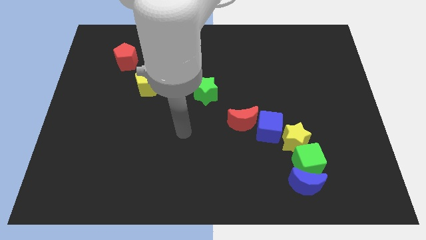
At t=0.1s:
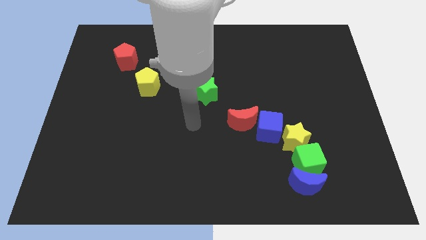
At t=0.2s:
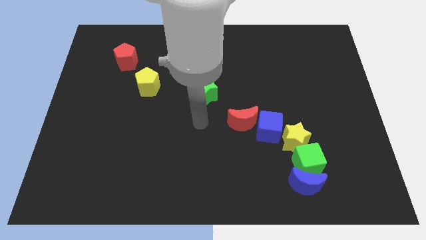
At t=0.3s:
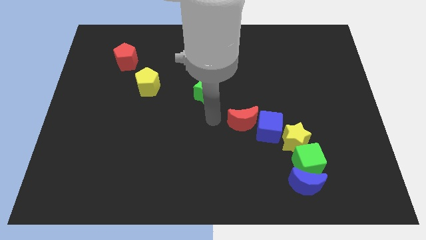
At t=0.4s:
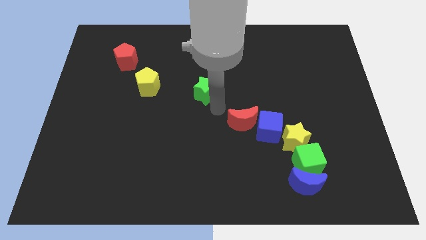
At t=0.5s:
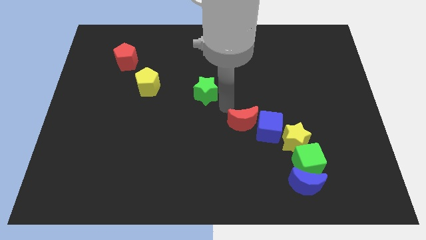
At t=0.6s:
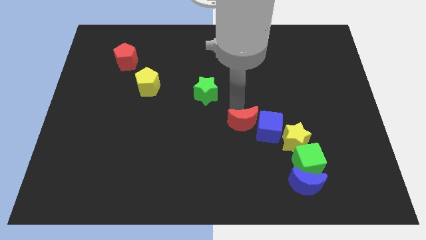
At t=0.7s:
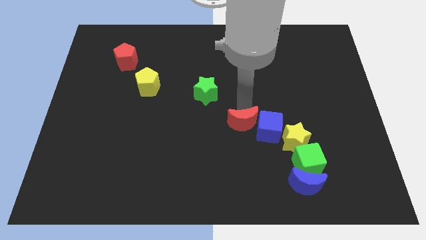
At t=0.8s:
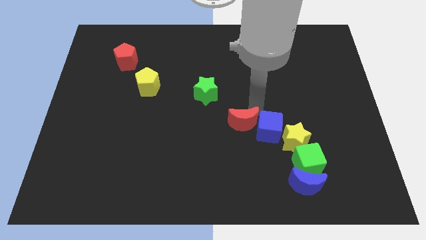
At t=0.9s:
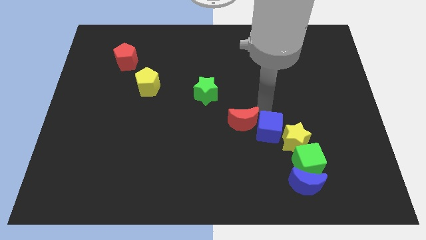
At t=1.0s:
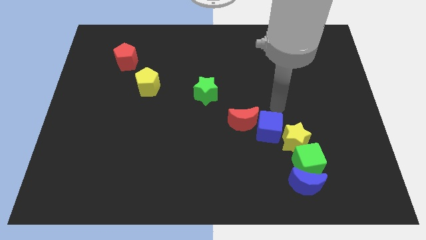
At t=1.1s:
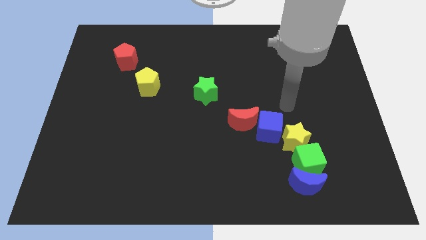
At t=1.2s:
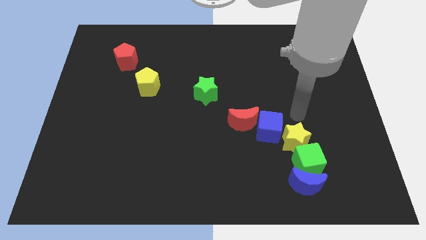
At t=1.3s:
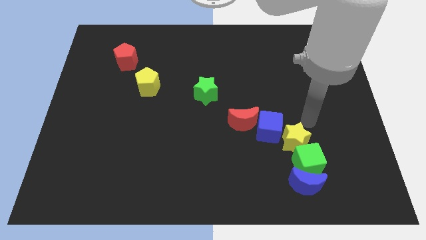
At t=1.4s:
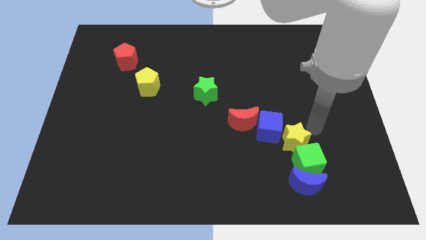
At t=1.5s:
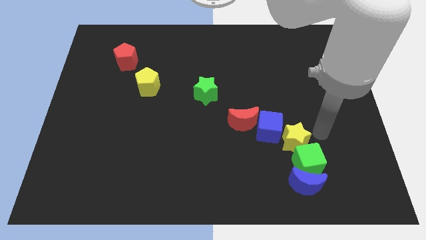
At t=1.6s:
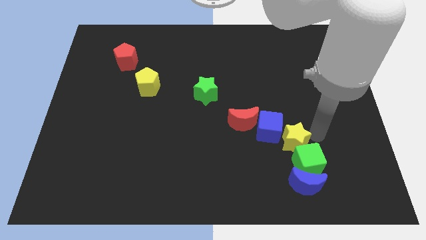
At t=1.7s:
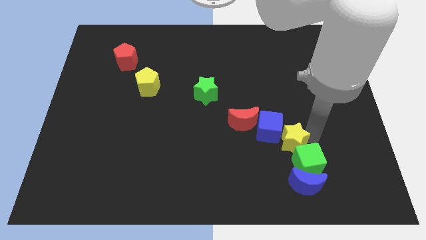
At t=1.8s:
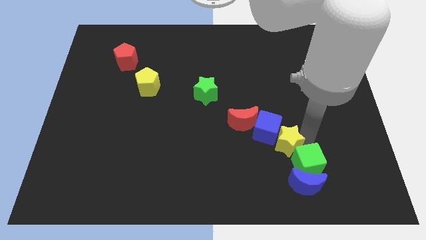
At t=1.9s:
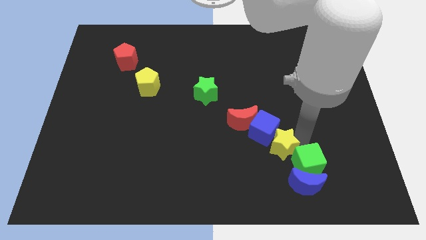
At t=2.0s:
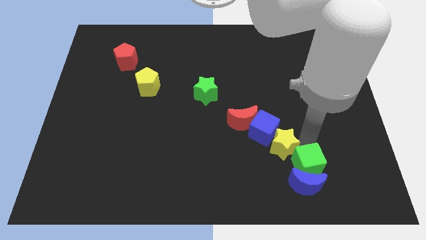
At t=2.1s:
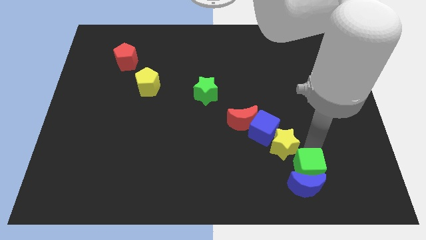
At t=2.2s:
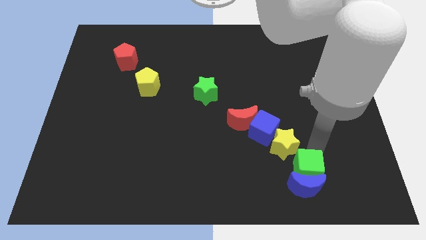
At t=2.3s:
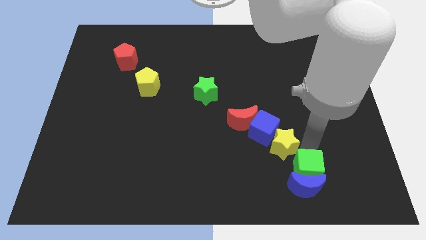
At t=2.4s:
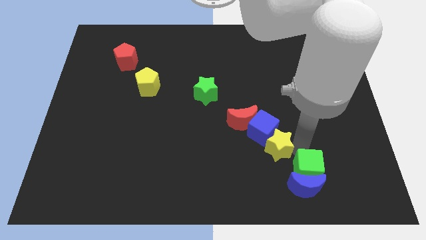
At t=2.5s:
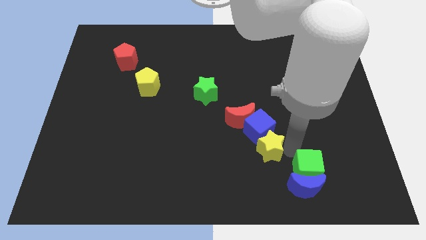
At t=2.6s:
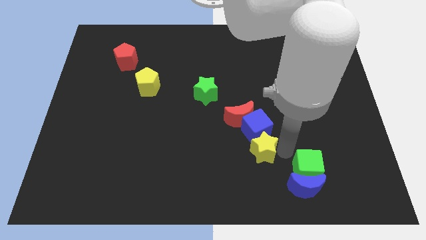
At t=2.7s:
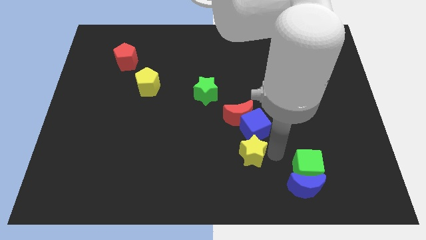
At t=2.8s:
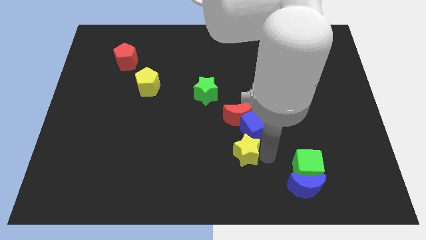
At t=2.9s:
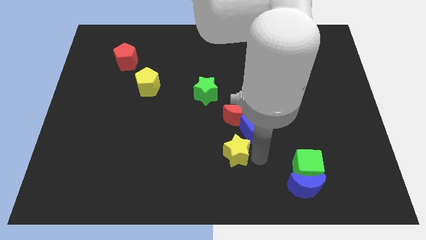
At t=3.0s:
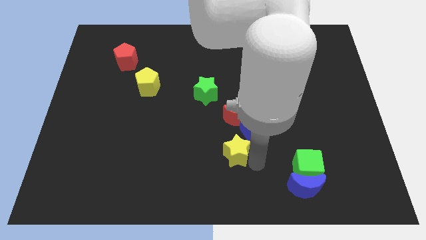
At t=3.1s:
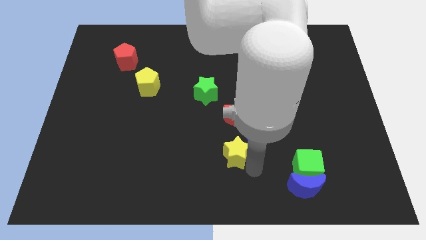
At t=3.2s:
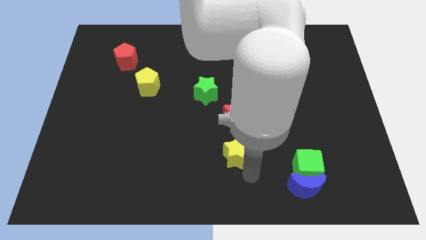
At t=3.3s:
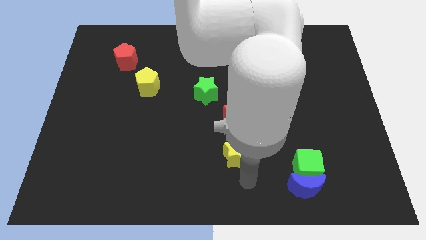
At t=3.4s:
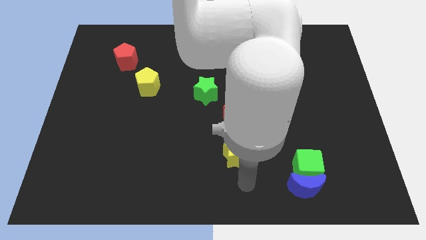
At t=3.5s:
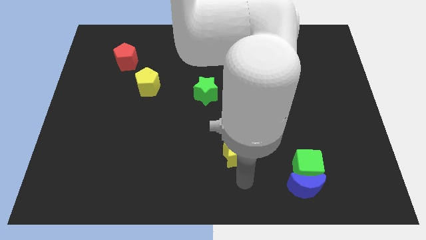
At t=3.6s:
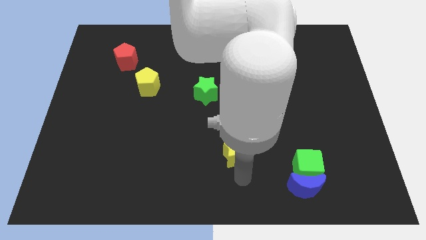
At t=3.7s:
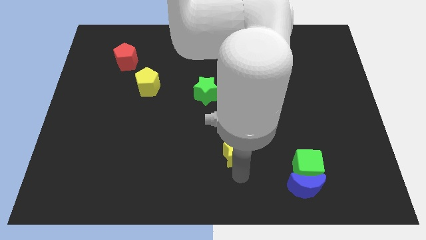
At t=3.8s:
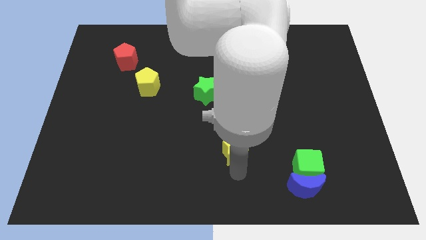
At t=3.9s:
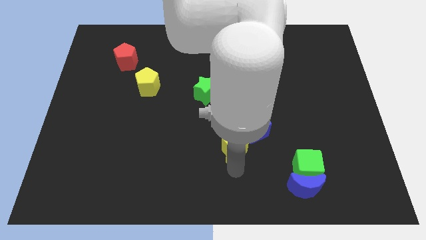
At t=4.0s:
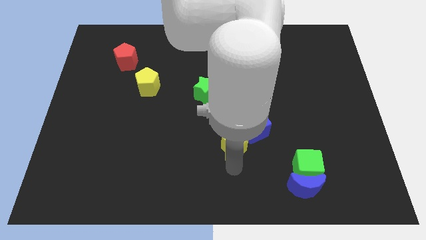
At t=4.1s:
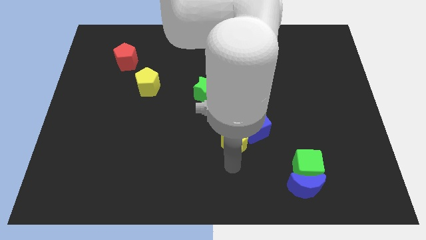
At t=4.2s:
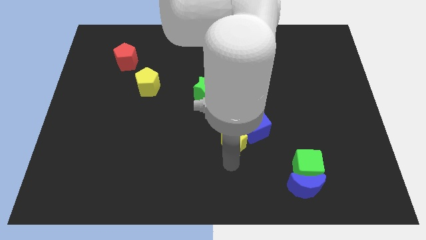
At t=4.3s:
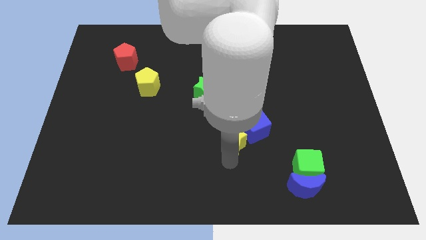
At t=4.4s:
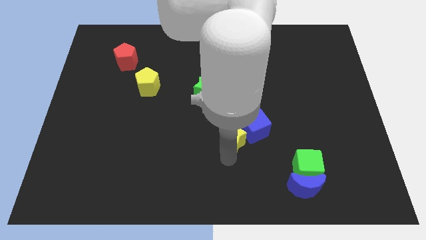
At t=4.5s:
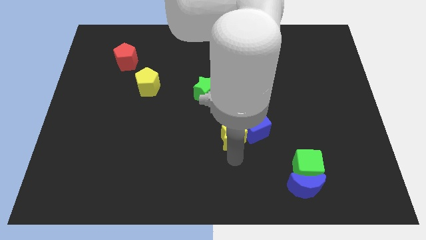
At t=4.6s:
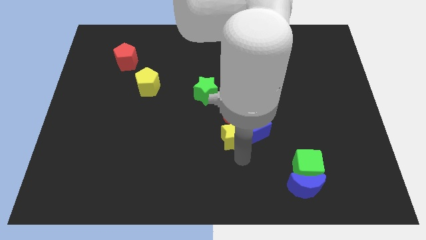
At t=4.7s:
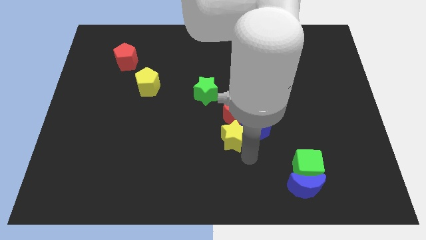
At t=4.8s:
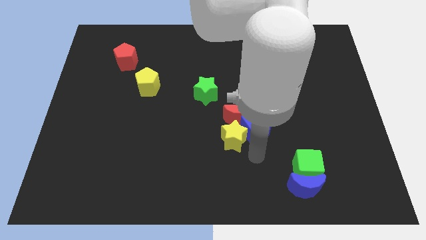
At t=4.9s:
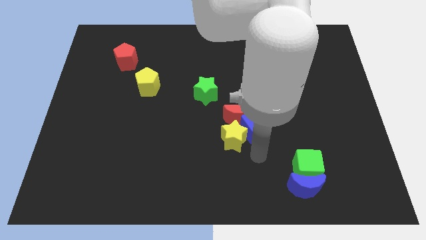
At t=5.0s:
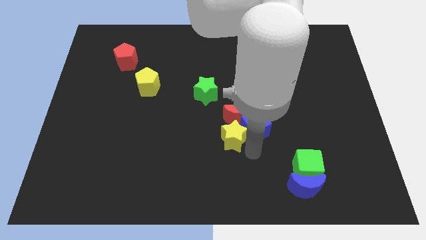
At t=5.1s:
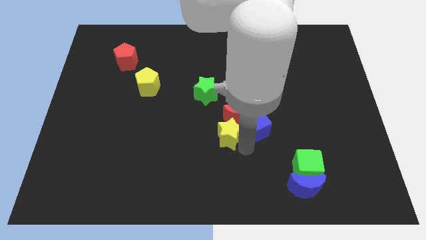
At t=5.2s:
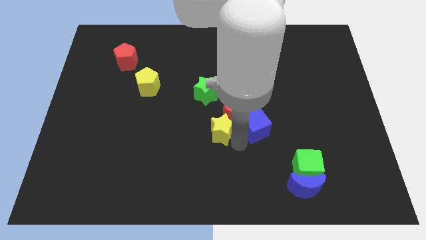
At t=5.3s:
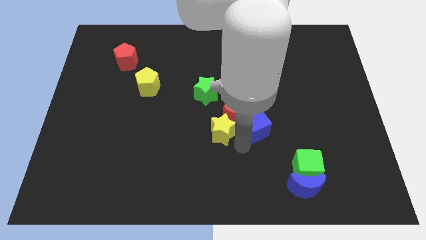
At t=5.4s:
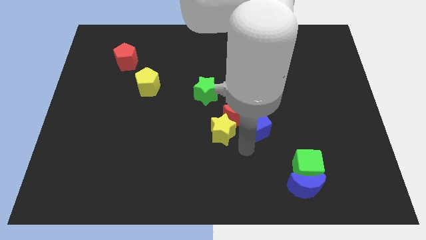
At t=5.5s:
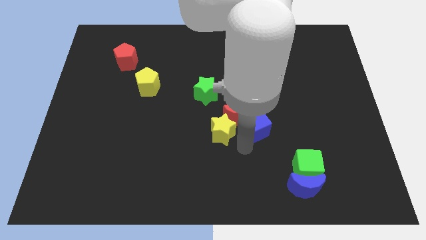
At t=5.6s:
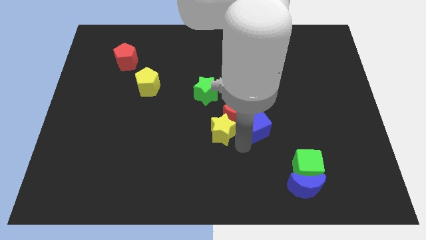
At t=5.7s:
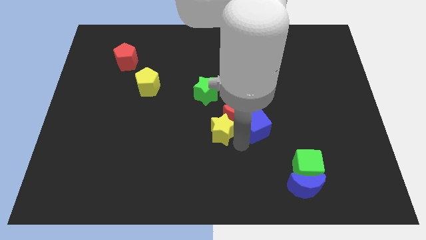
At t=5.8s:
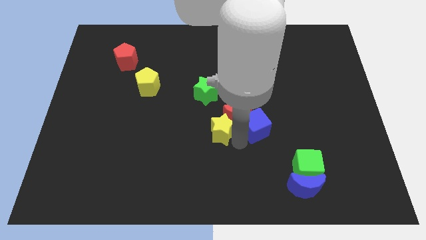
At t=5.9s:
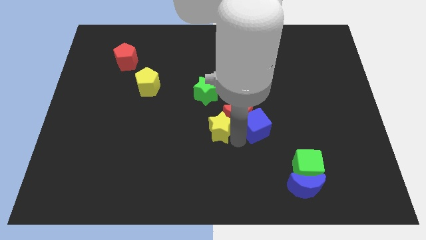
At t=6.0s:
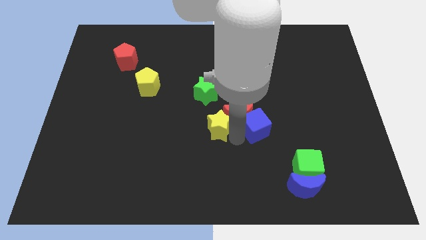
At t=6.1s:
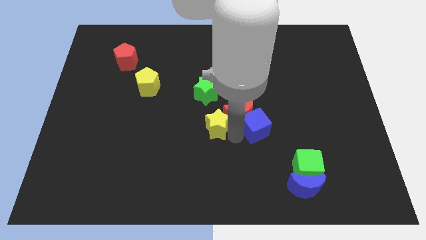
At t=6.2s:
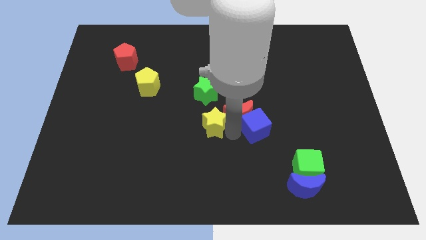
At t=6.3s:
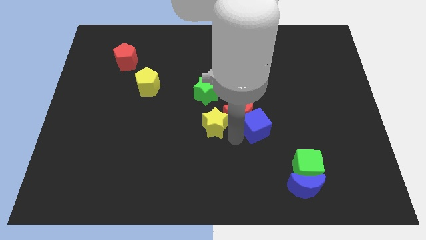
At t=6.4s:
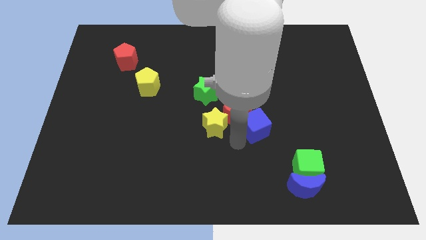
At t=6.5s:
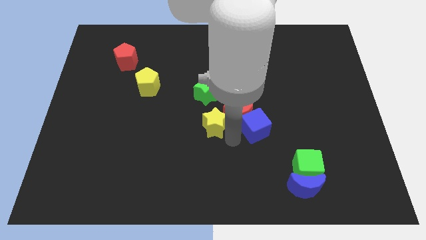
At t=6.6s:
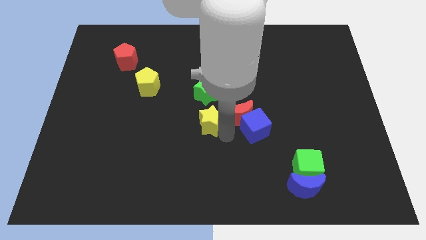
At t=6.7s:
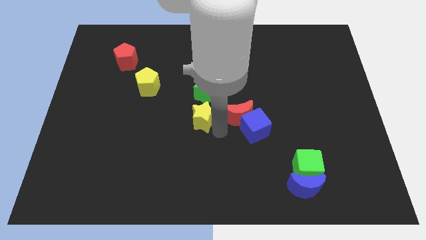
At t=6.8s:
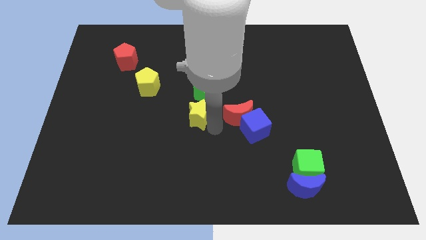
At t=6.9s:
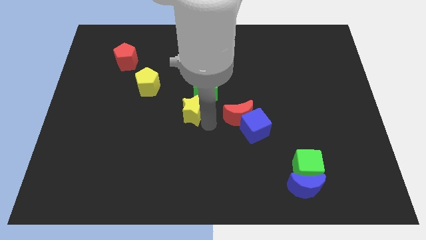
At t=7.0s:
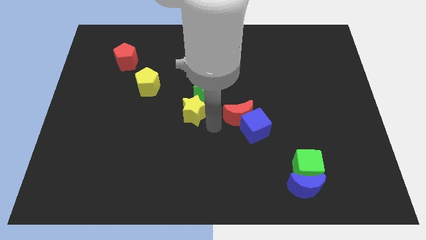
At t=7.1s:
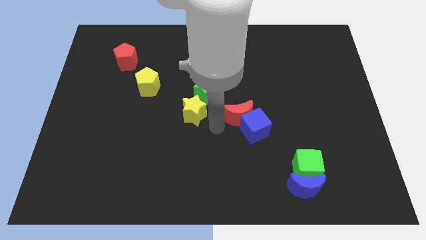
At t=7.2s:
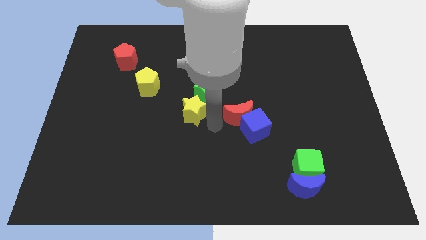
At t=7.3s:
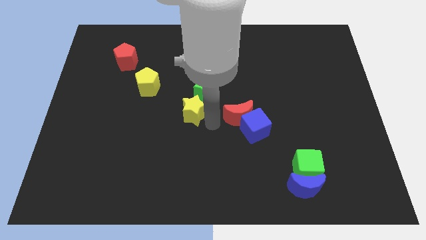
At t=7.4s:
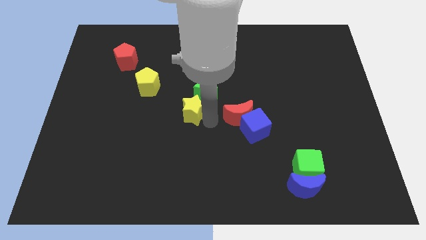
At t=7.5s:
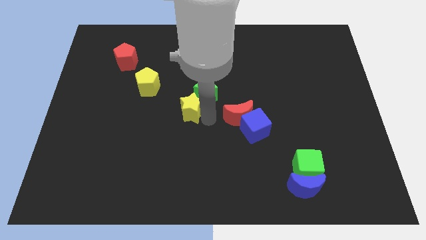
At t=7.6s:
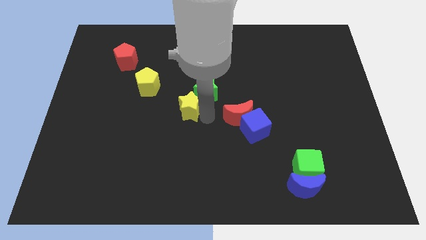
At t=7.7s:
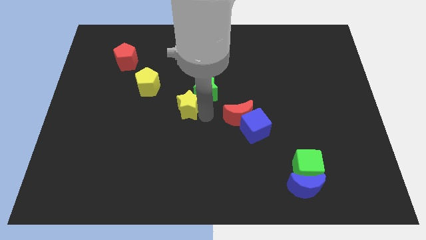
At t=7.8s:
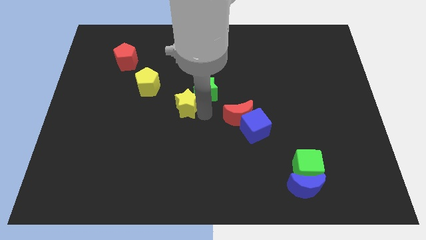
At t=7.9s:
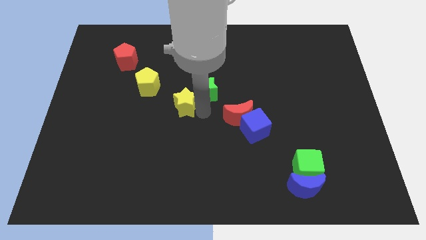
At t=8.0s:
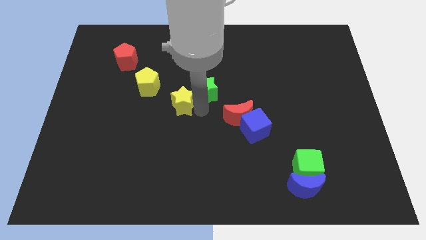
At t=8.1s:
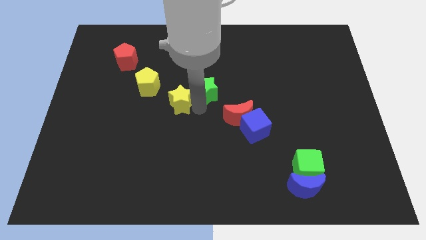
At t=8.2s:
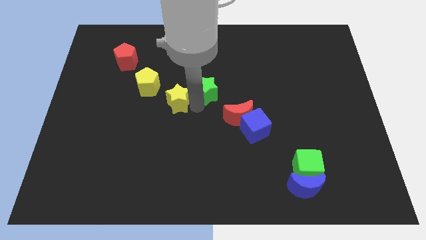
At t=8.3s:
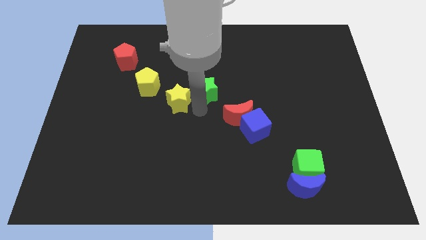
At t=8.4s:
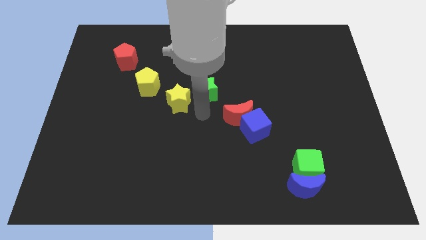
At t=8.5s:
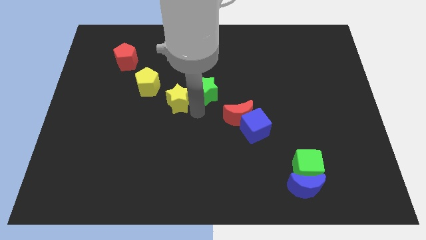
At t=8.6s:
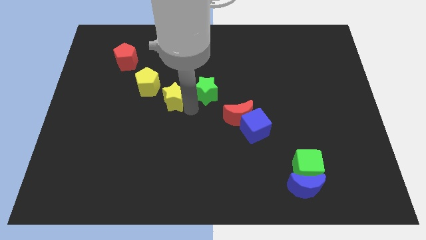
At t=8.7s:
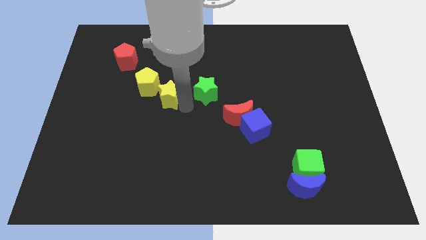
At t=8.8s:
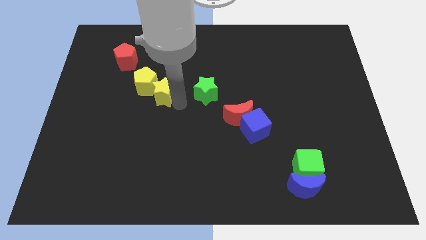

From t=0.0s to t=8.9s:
slide the yellow star towards the yellow pentagon
